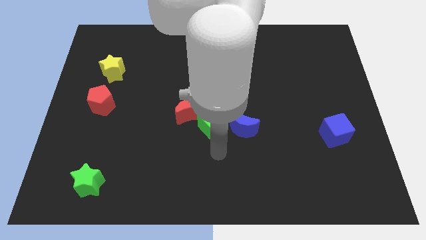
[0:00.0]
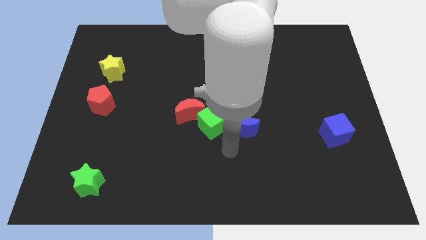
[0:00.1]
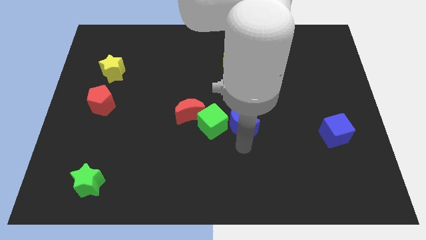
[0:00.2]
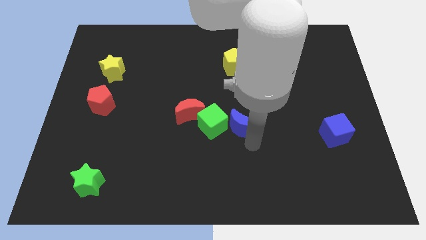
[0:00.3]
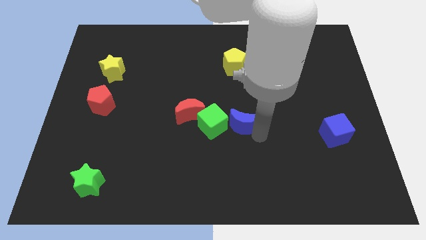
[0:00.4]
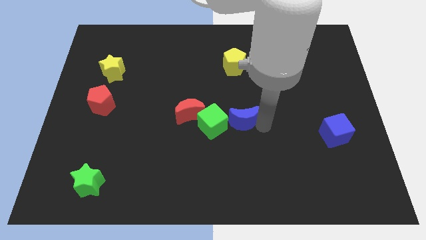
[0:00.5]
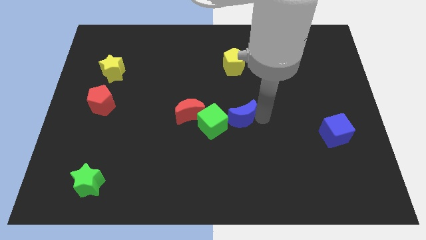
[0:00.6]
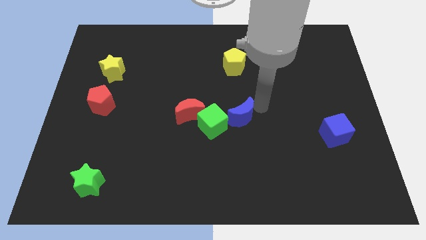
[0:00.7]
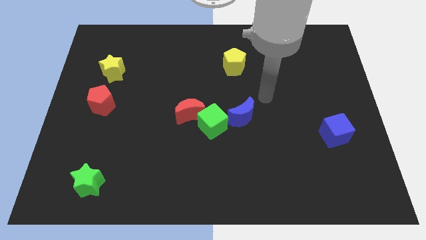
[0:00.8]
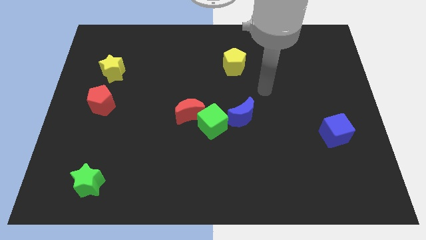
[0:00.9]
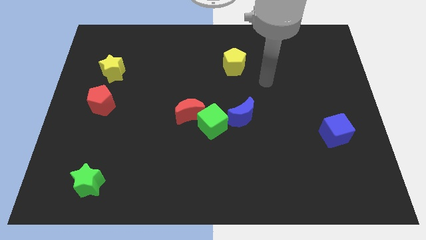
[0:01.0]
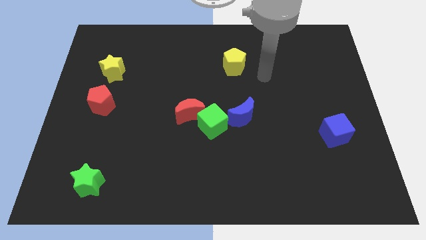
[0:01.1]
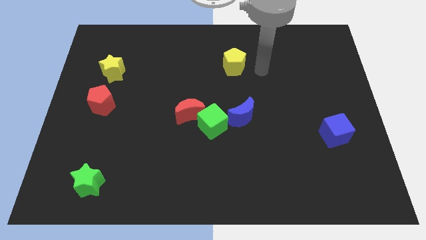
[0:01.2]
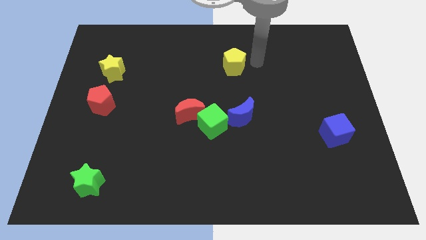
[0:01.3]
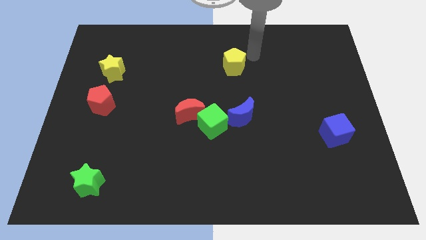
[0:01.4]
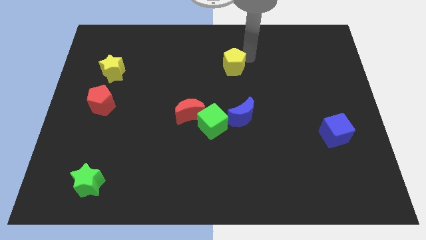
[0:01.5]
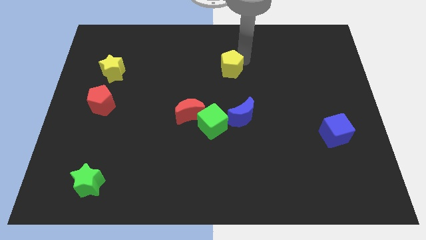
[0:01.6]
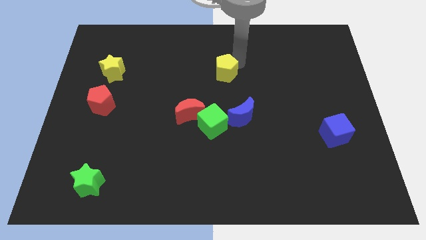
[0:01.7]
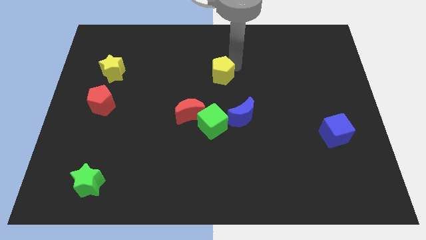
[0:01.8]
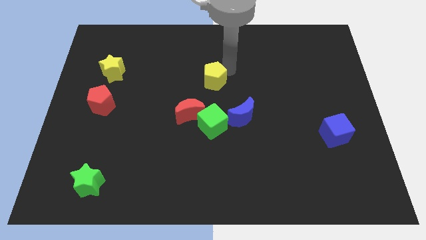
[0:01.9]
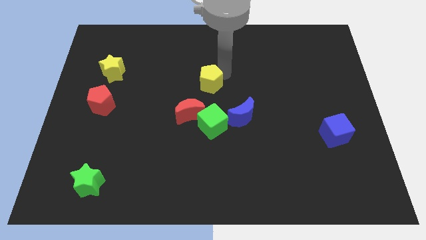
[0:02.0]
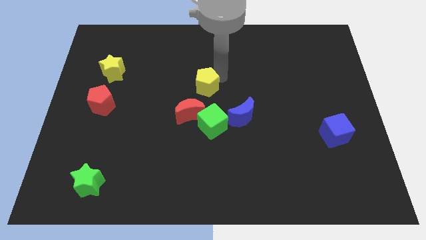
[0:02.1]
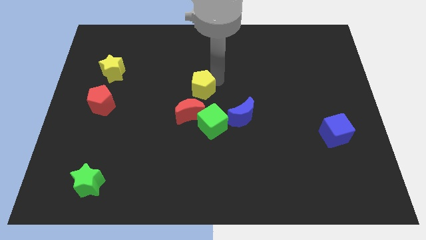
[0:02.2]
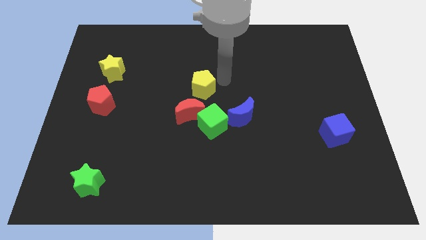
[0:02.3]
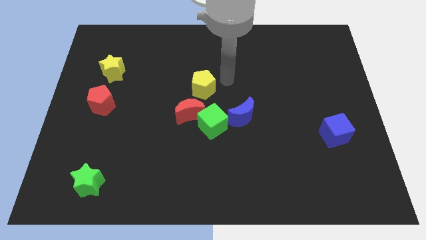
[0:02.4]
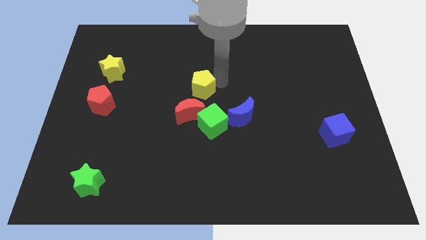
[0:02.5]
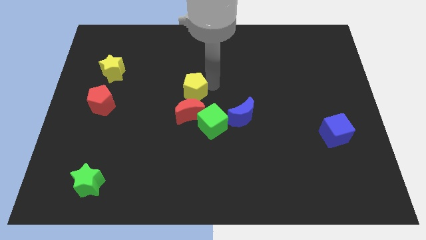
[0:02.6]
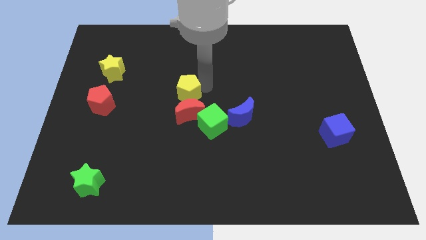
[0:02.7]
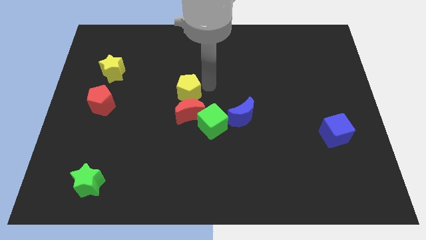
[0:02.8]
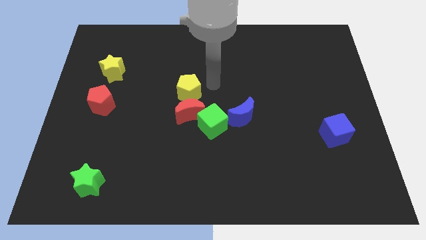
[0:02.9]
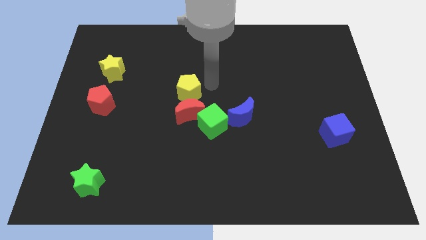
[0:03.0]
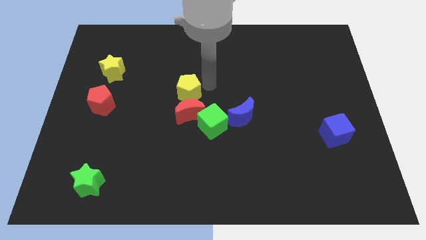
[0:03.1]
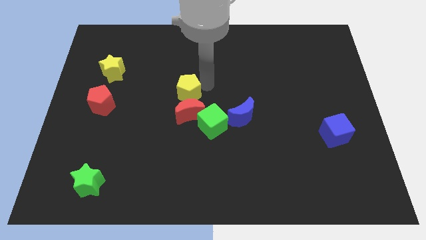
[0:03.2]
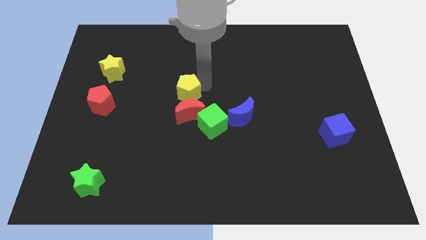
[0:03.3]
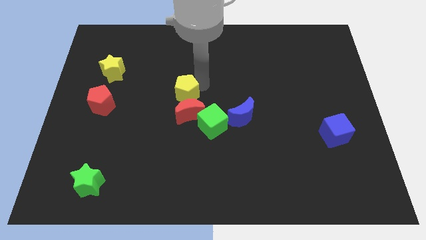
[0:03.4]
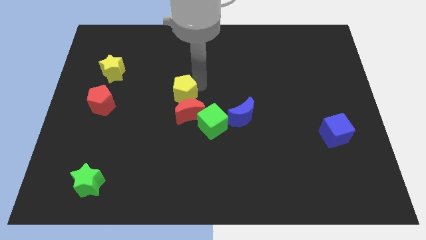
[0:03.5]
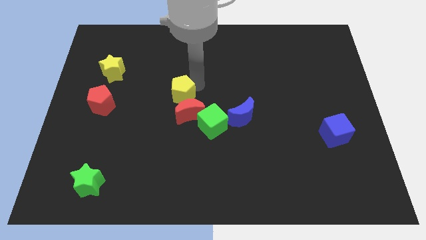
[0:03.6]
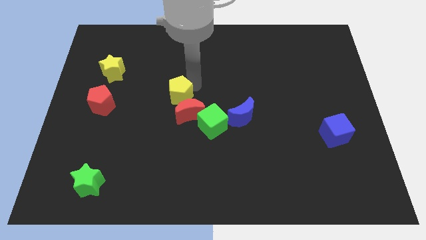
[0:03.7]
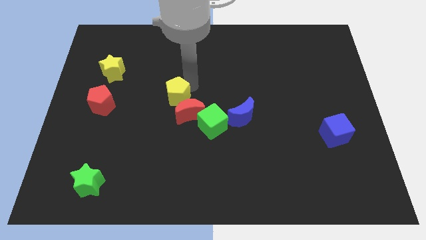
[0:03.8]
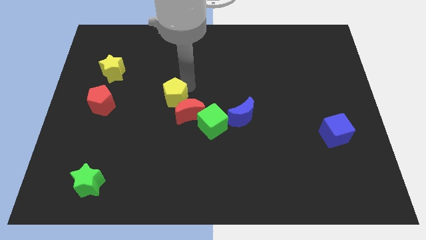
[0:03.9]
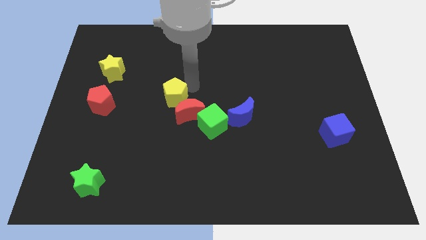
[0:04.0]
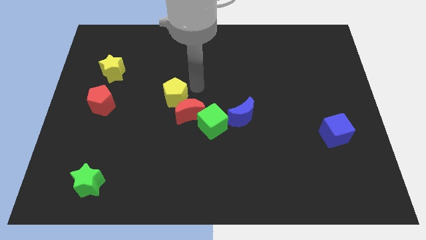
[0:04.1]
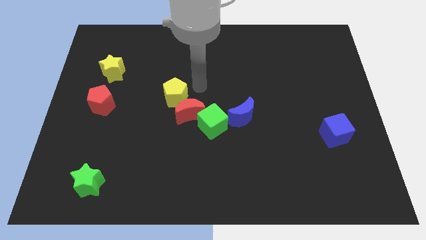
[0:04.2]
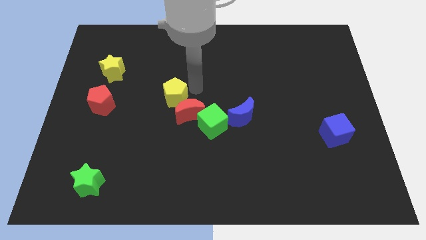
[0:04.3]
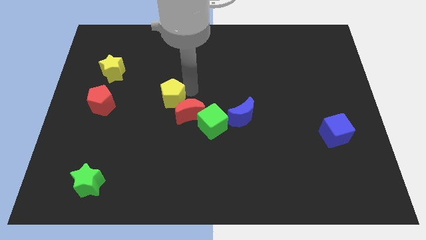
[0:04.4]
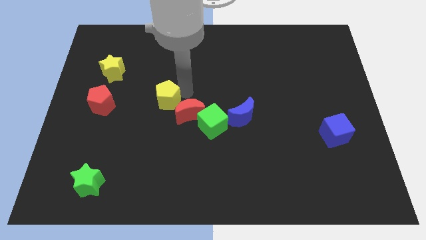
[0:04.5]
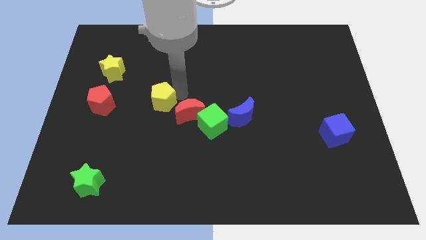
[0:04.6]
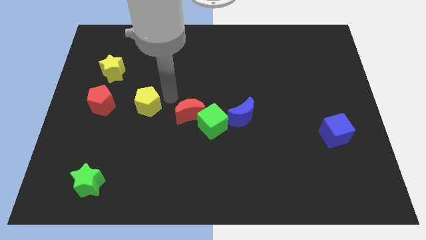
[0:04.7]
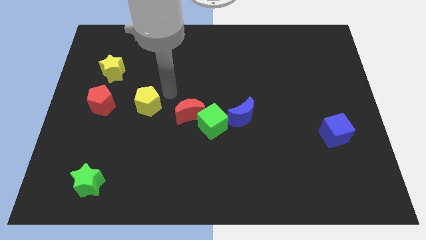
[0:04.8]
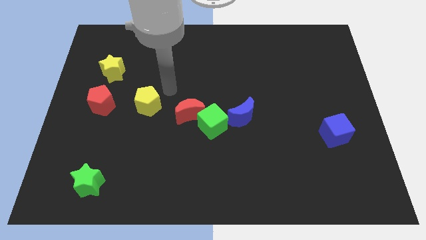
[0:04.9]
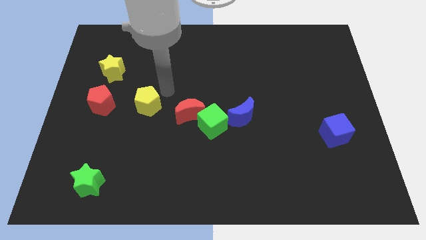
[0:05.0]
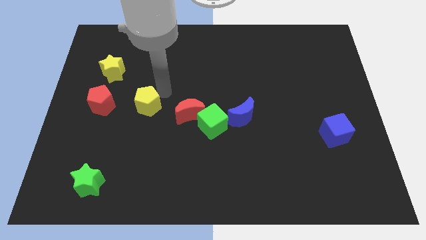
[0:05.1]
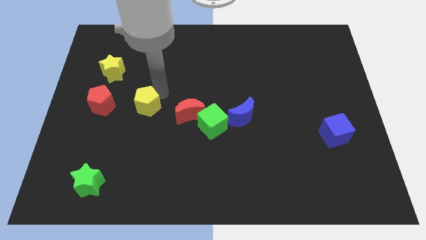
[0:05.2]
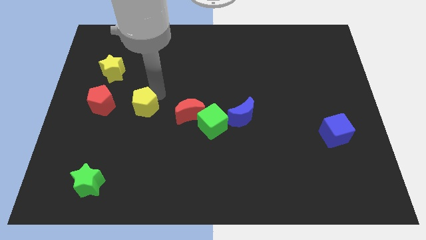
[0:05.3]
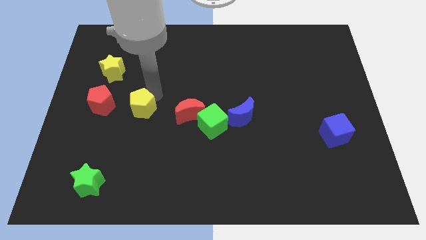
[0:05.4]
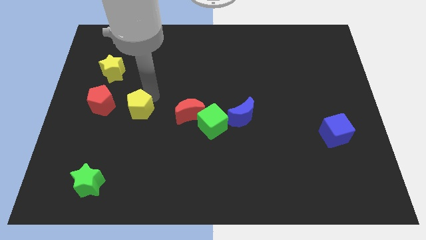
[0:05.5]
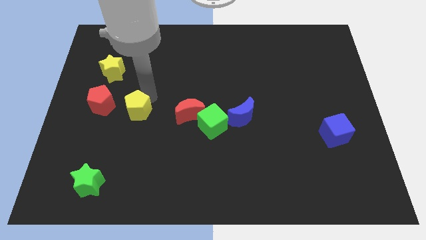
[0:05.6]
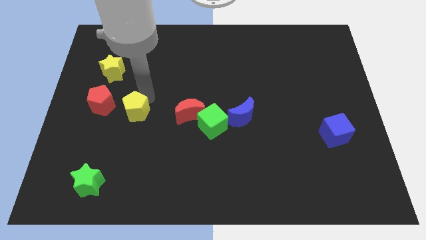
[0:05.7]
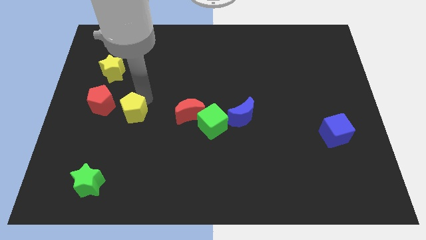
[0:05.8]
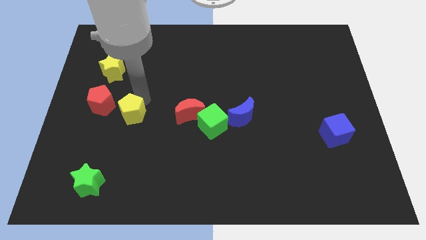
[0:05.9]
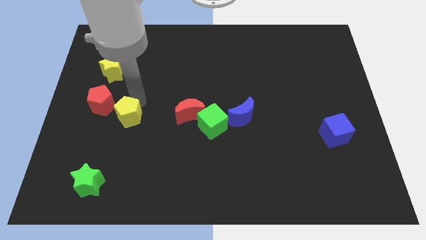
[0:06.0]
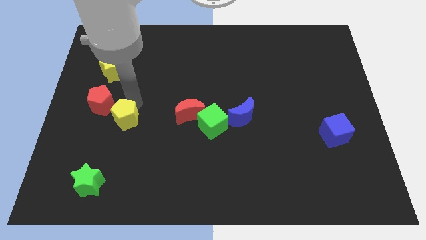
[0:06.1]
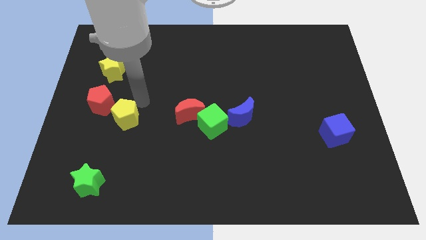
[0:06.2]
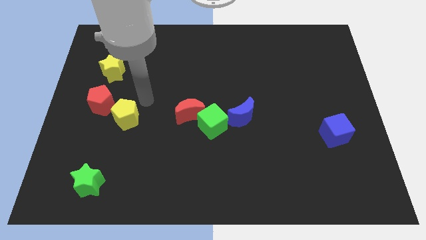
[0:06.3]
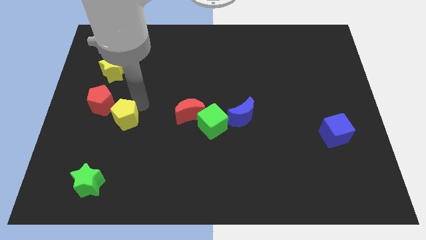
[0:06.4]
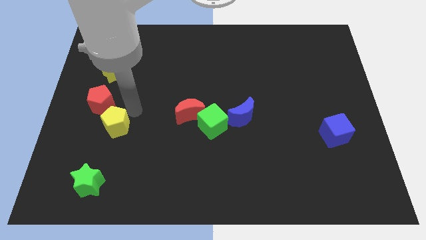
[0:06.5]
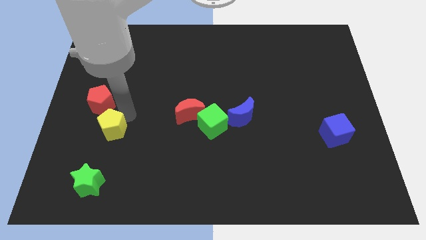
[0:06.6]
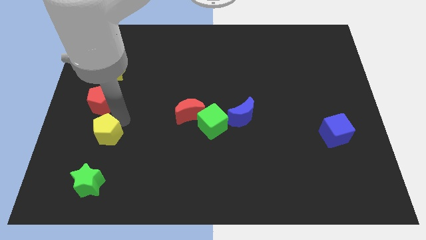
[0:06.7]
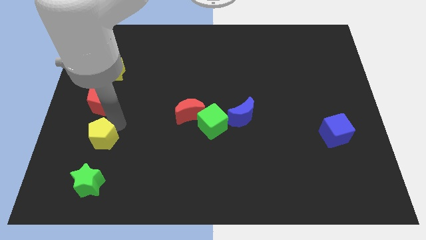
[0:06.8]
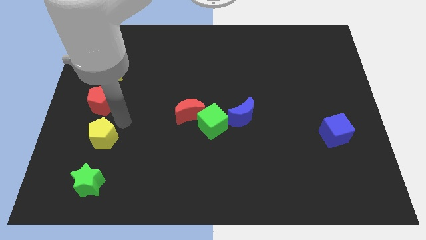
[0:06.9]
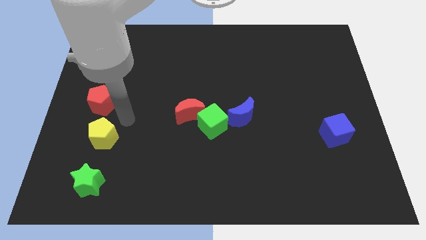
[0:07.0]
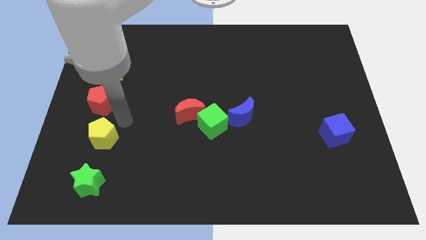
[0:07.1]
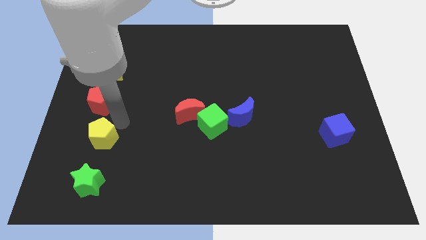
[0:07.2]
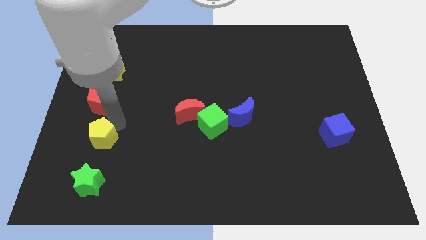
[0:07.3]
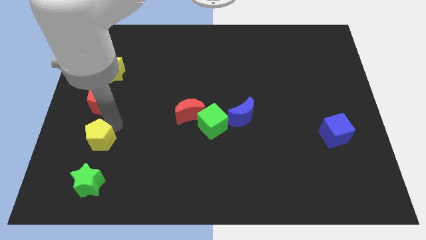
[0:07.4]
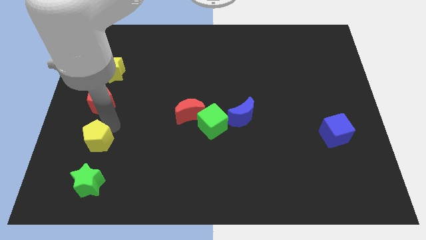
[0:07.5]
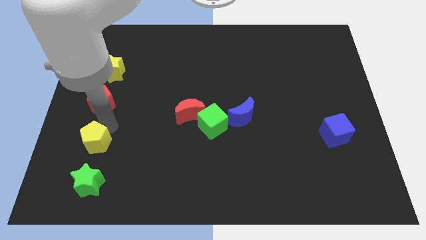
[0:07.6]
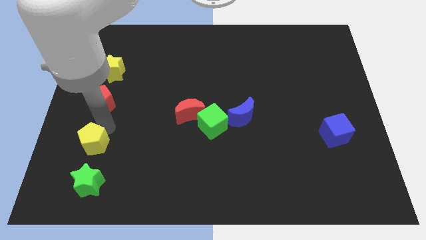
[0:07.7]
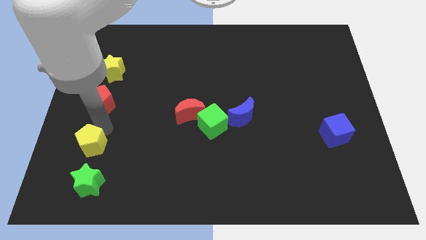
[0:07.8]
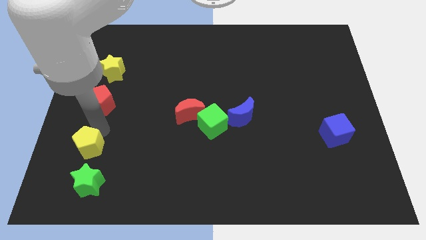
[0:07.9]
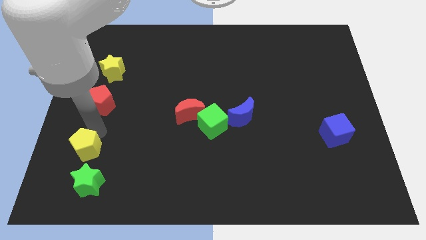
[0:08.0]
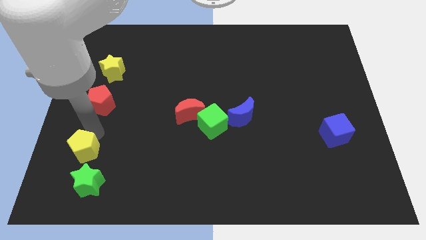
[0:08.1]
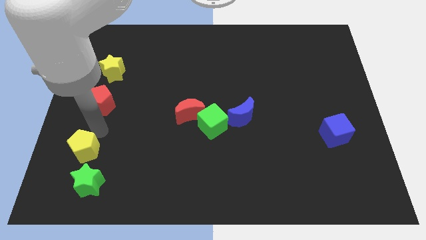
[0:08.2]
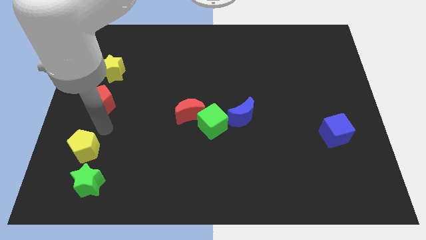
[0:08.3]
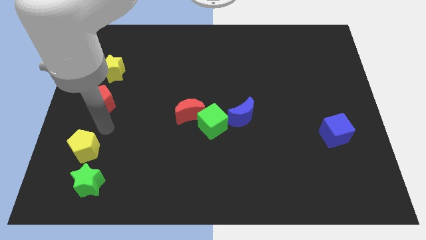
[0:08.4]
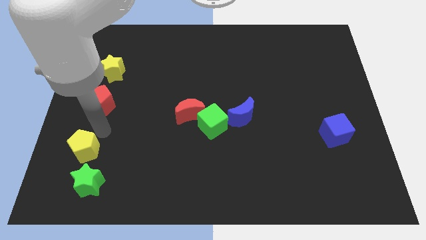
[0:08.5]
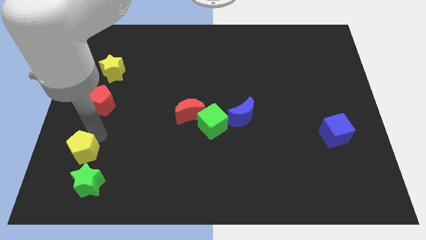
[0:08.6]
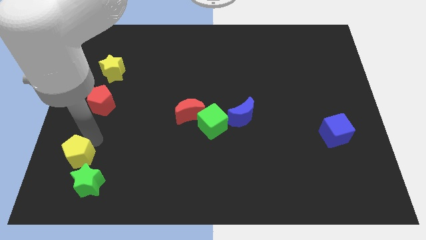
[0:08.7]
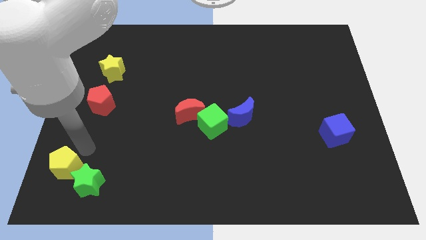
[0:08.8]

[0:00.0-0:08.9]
slide the yellow pentagon to the bottom left corner
